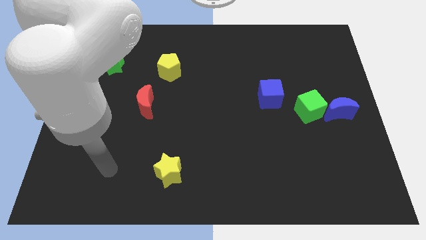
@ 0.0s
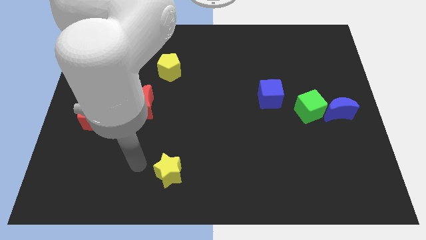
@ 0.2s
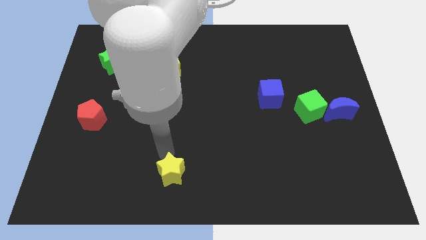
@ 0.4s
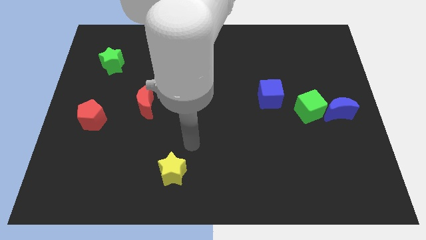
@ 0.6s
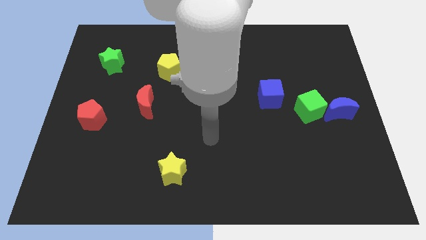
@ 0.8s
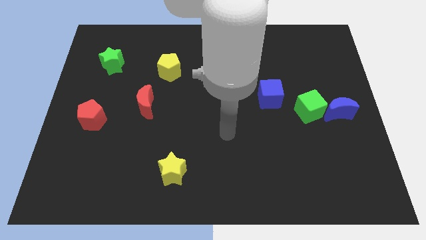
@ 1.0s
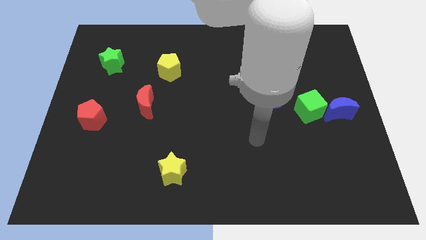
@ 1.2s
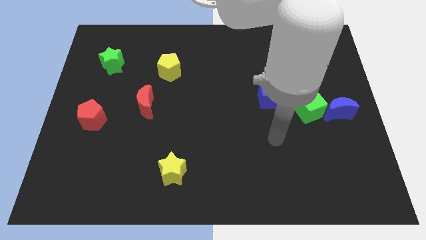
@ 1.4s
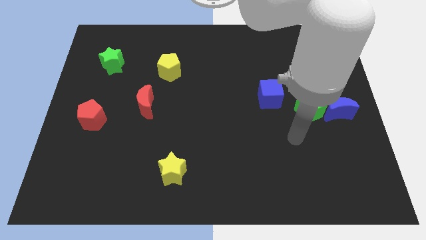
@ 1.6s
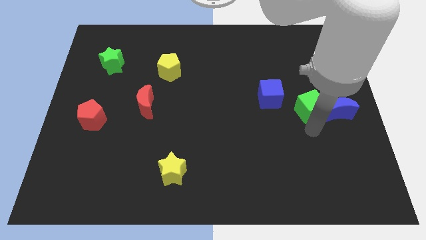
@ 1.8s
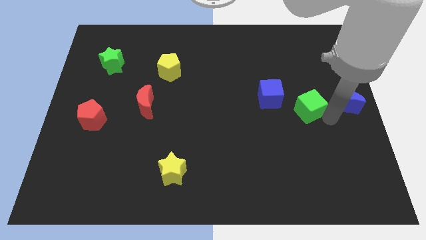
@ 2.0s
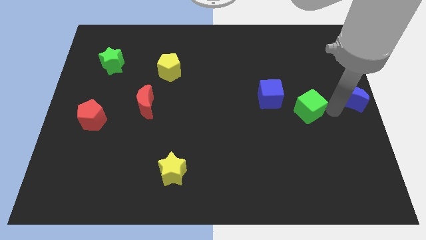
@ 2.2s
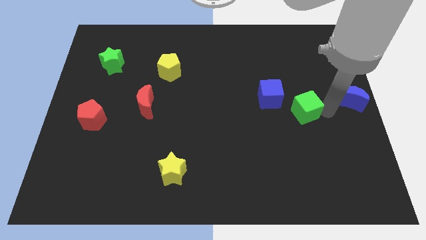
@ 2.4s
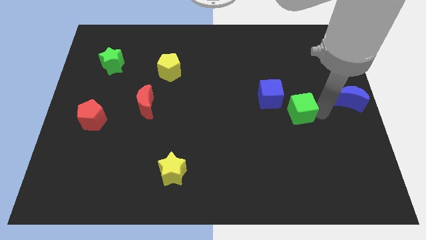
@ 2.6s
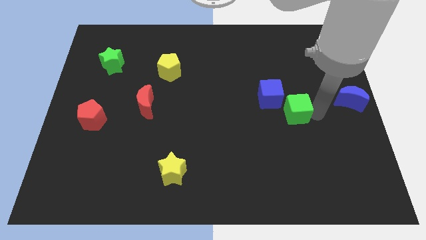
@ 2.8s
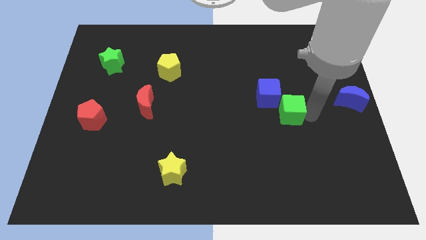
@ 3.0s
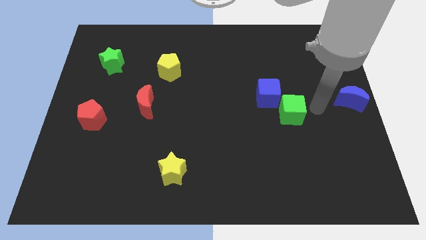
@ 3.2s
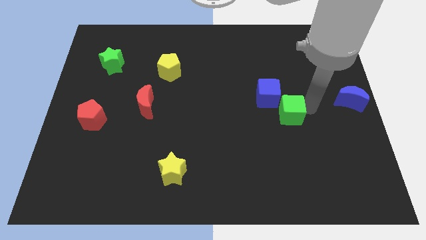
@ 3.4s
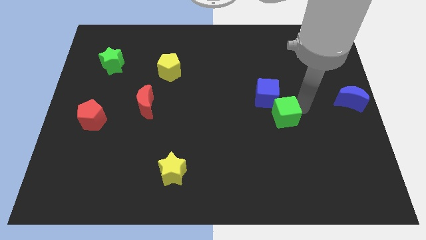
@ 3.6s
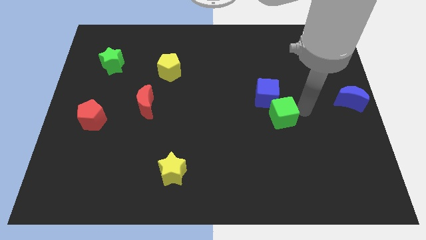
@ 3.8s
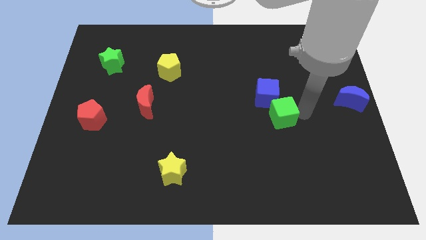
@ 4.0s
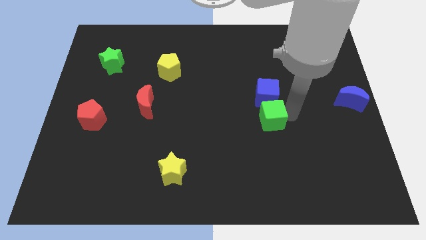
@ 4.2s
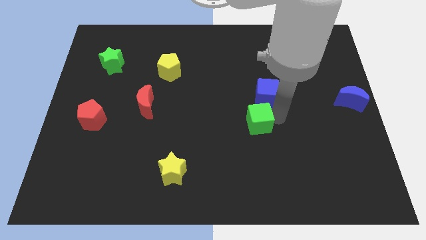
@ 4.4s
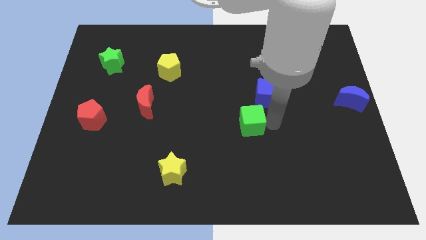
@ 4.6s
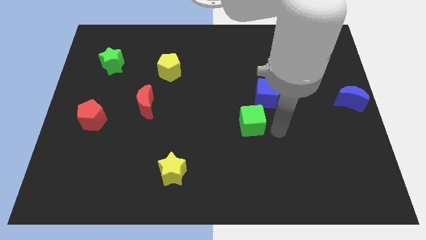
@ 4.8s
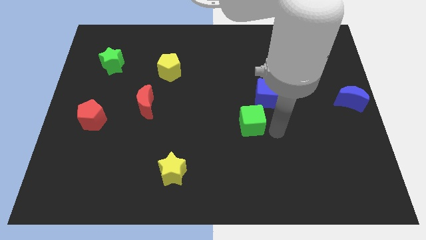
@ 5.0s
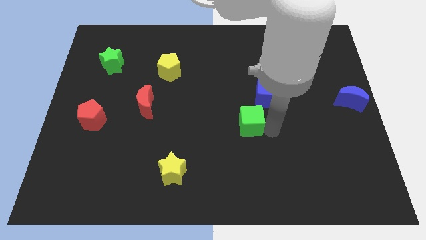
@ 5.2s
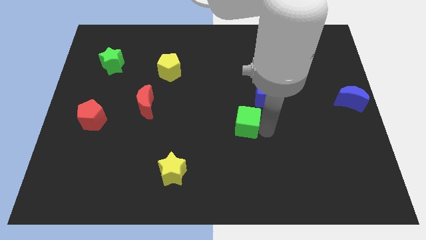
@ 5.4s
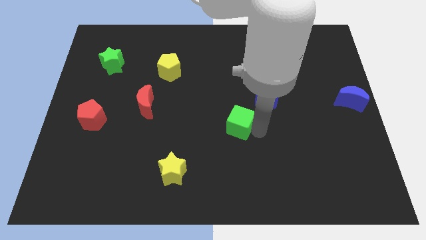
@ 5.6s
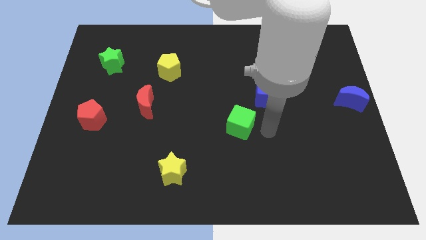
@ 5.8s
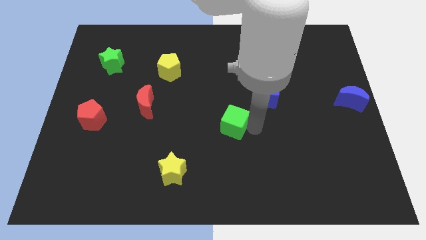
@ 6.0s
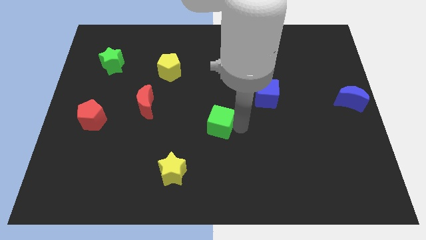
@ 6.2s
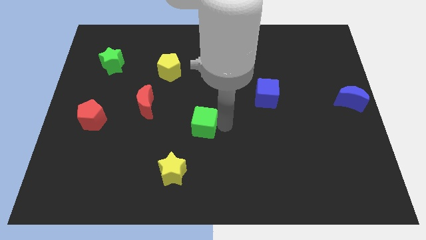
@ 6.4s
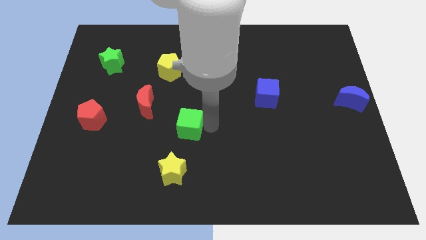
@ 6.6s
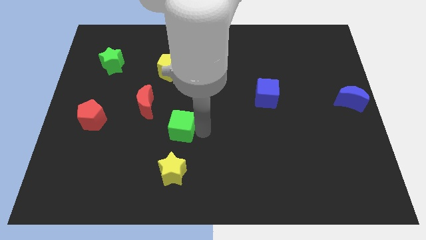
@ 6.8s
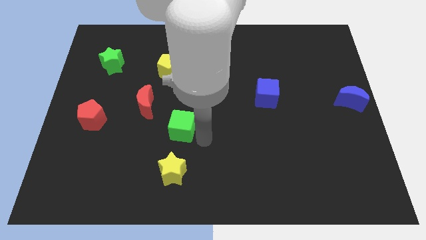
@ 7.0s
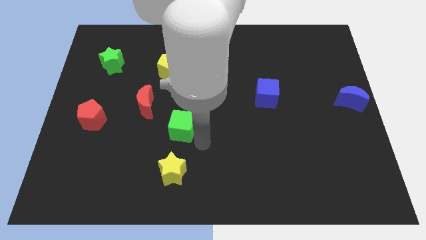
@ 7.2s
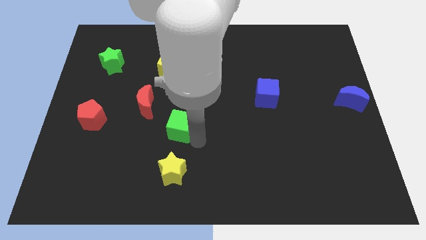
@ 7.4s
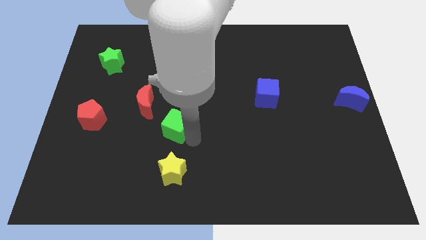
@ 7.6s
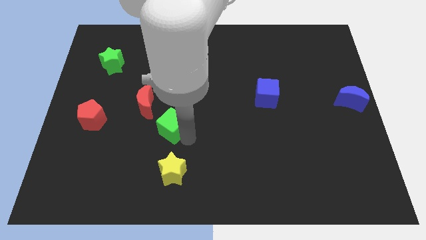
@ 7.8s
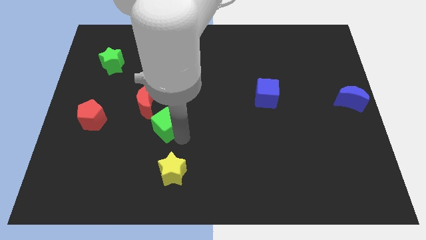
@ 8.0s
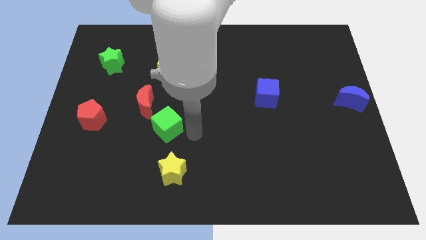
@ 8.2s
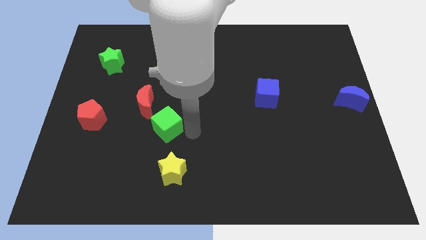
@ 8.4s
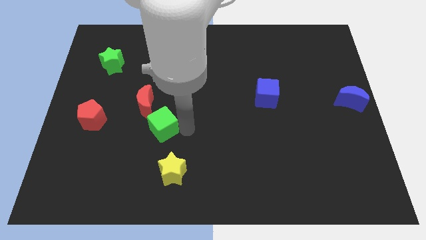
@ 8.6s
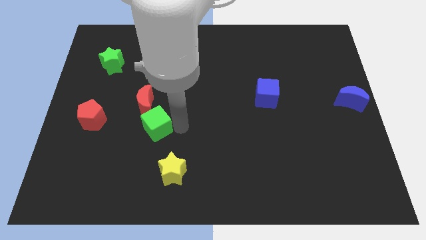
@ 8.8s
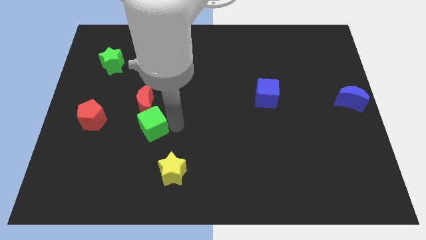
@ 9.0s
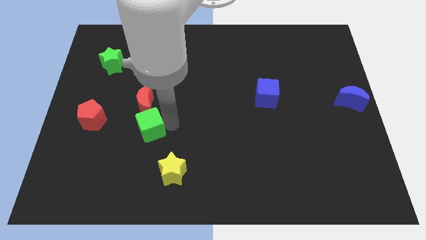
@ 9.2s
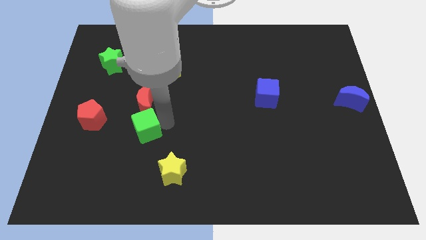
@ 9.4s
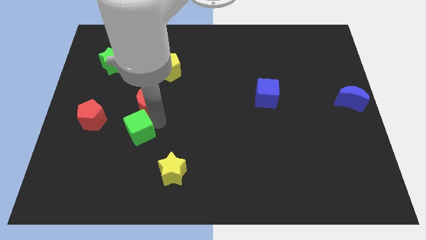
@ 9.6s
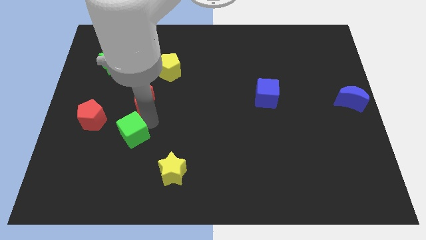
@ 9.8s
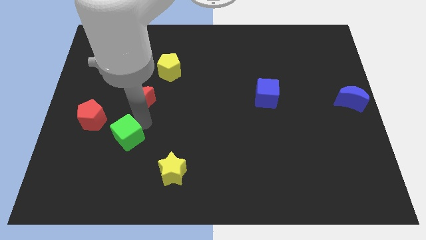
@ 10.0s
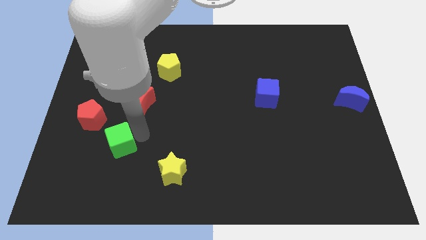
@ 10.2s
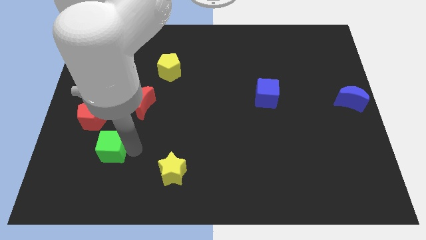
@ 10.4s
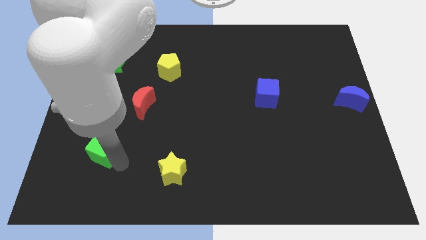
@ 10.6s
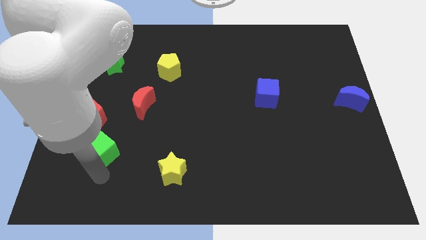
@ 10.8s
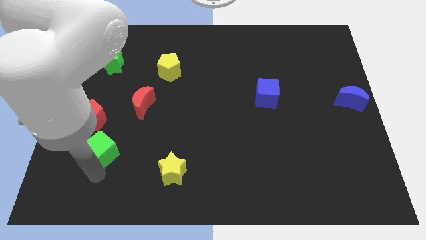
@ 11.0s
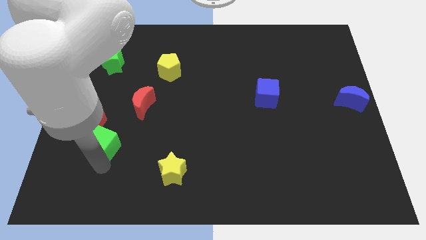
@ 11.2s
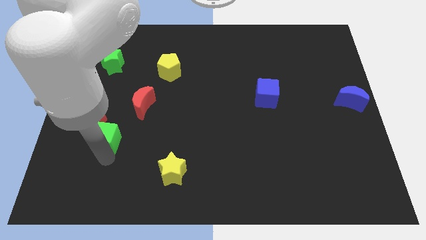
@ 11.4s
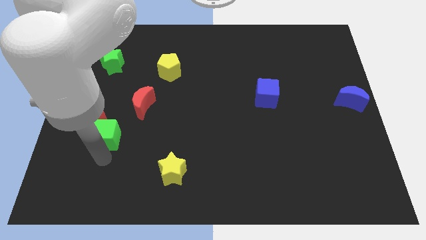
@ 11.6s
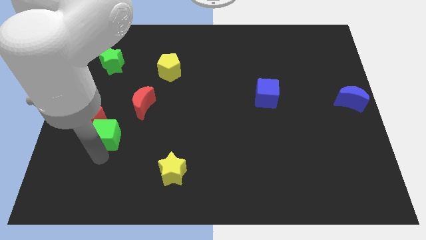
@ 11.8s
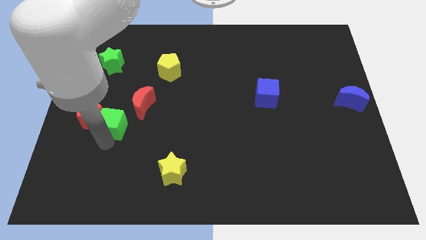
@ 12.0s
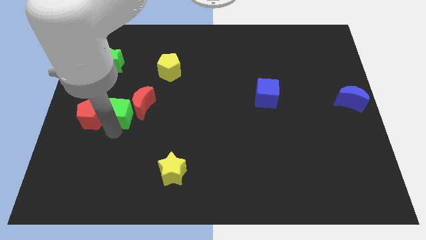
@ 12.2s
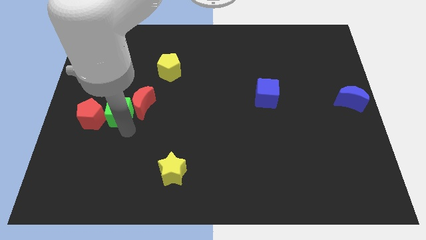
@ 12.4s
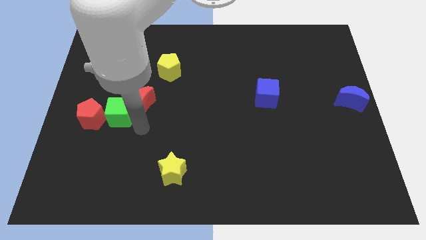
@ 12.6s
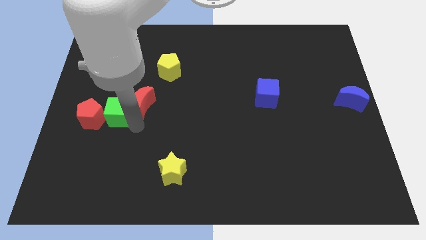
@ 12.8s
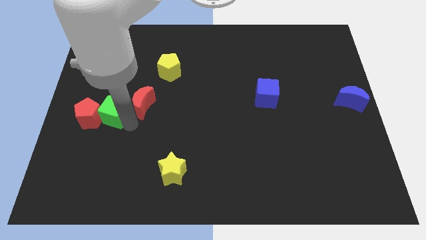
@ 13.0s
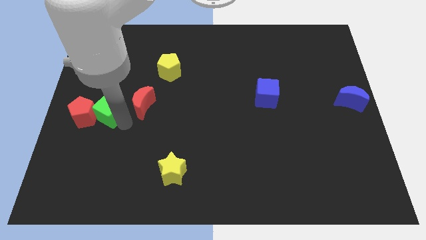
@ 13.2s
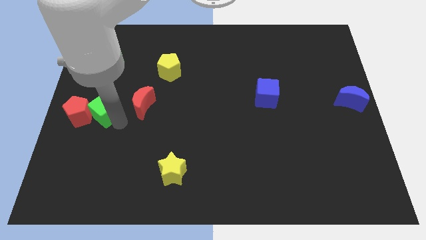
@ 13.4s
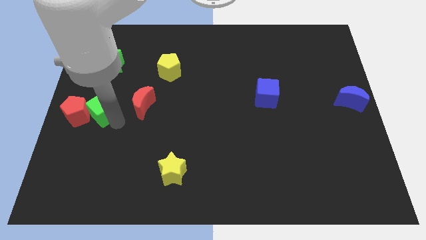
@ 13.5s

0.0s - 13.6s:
put the green cube to the left side
